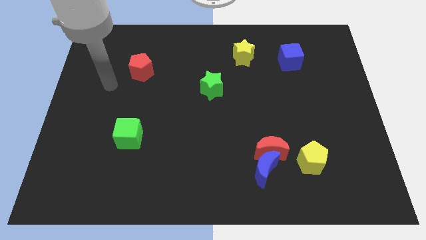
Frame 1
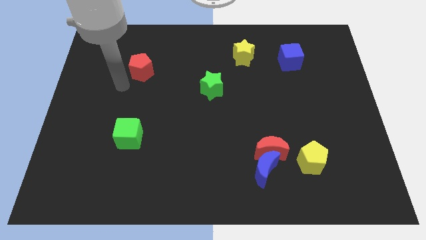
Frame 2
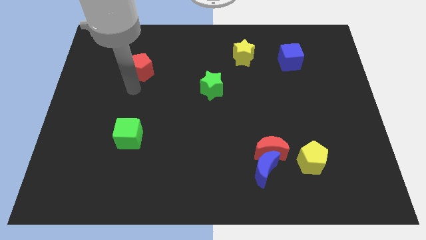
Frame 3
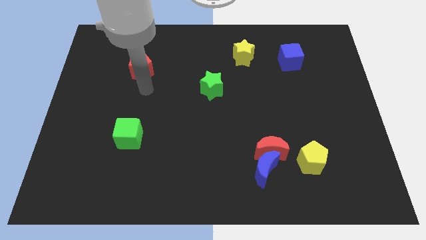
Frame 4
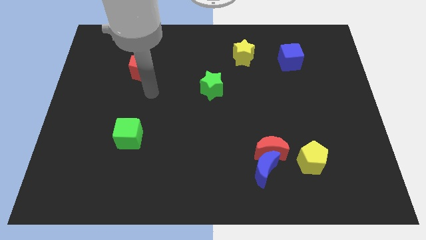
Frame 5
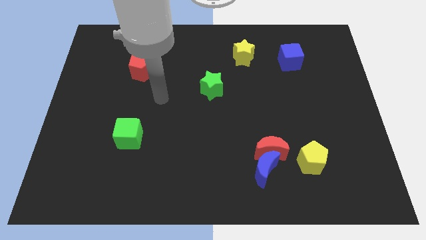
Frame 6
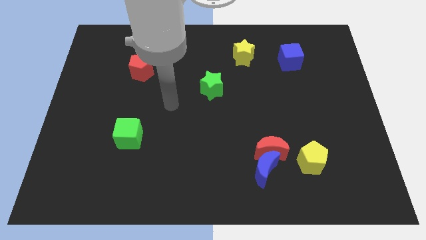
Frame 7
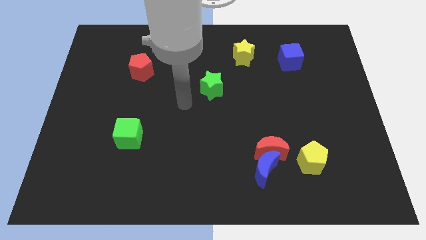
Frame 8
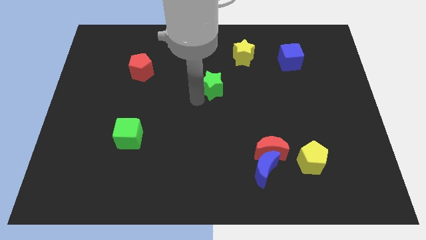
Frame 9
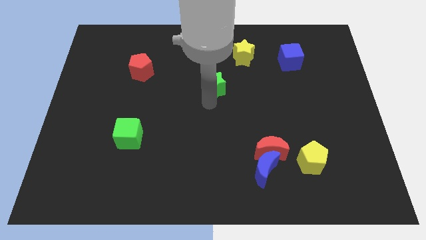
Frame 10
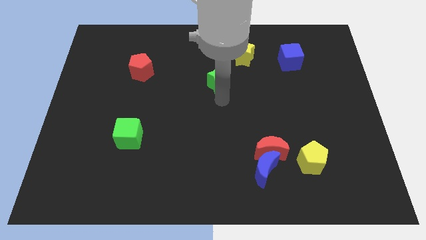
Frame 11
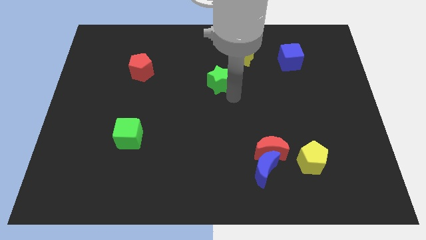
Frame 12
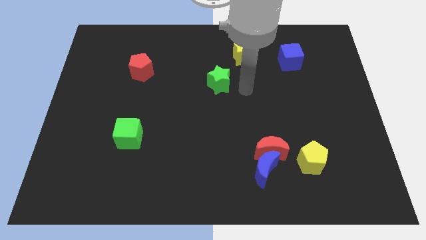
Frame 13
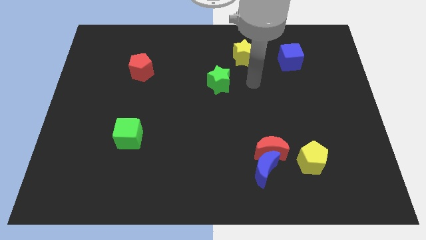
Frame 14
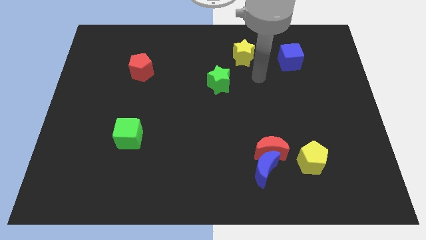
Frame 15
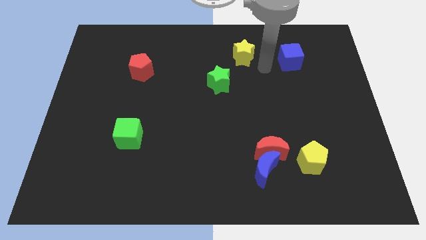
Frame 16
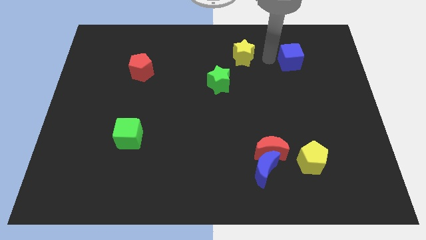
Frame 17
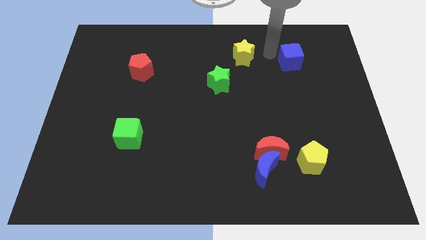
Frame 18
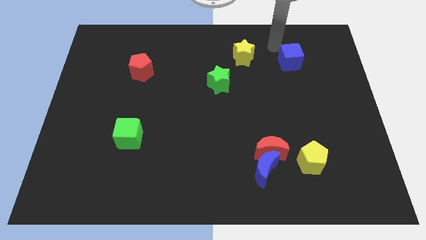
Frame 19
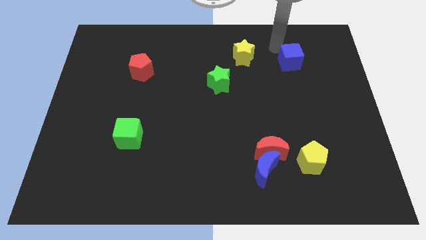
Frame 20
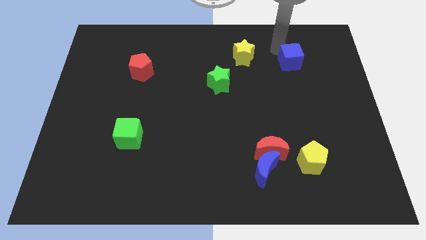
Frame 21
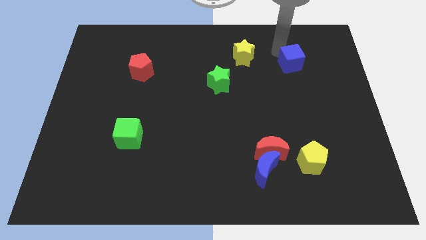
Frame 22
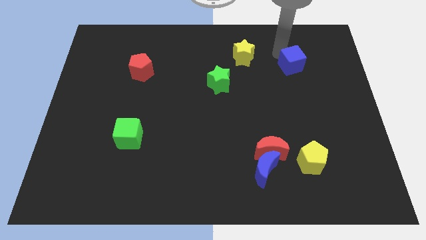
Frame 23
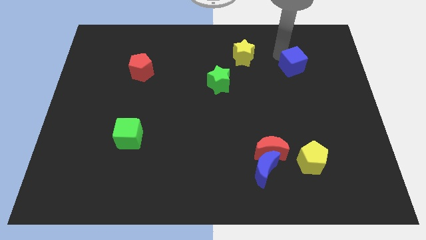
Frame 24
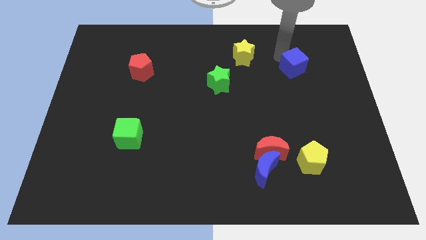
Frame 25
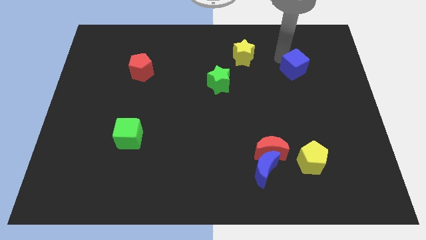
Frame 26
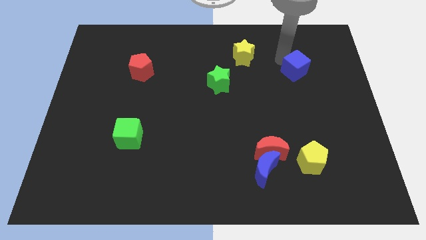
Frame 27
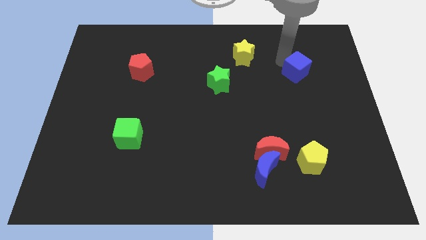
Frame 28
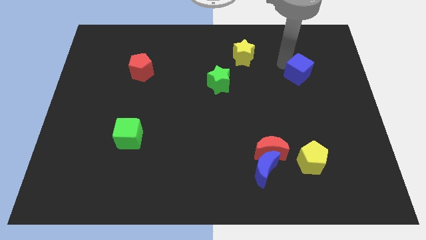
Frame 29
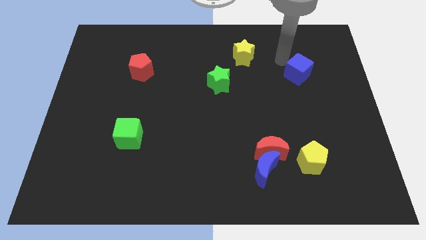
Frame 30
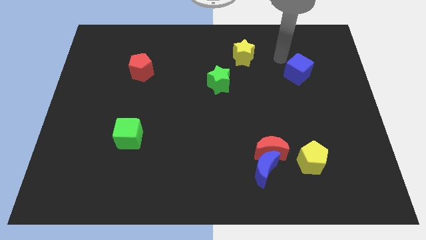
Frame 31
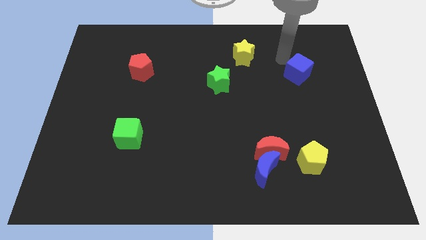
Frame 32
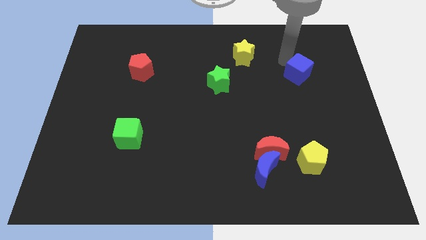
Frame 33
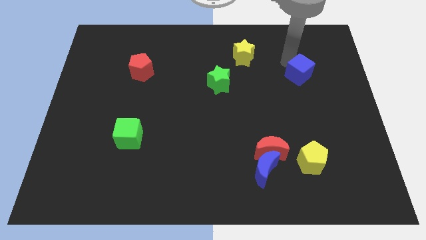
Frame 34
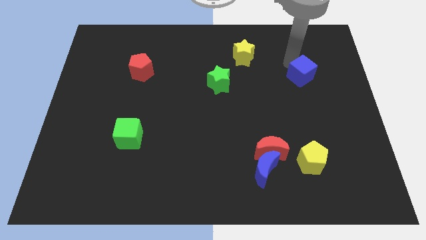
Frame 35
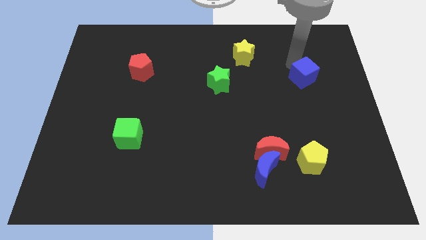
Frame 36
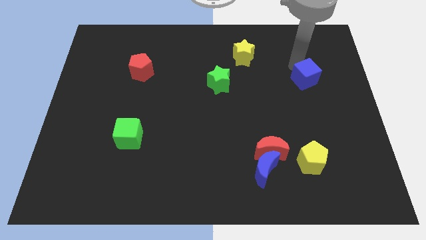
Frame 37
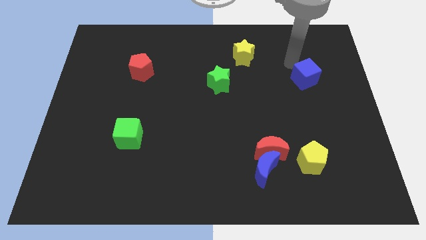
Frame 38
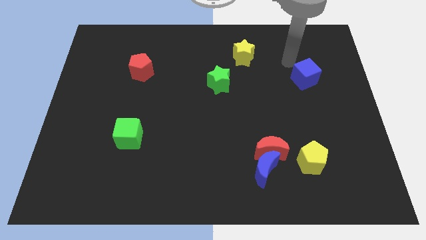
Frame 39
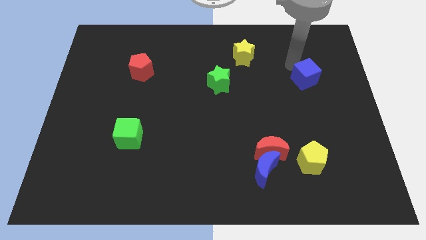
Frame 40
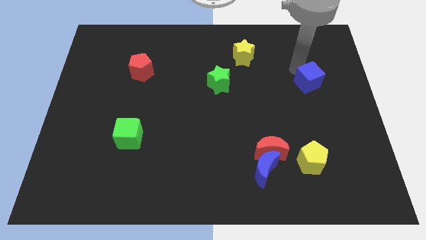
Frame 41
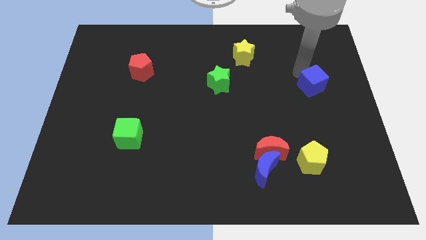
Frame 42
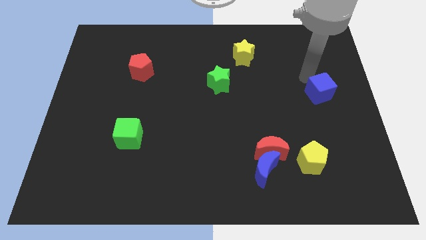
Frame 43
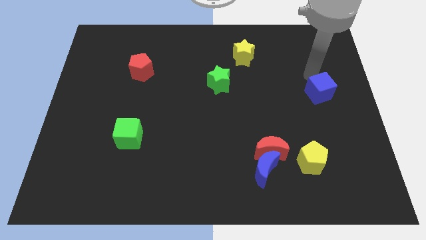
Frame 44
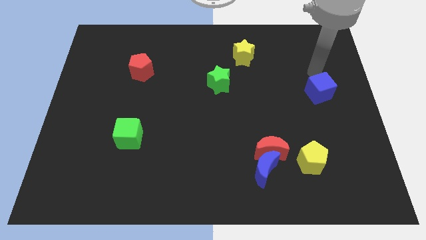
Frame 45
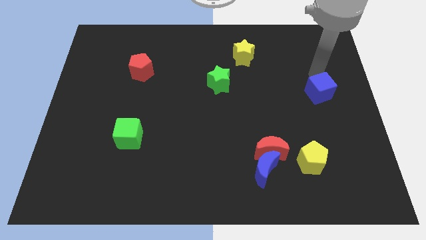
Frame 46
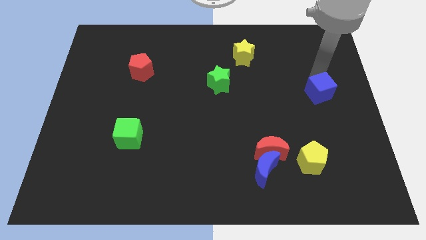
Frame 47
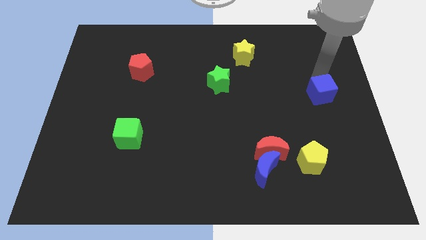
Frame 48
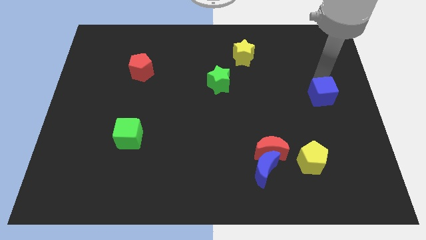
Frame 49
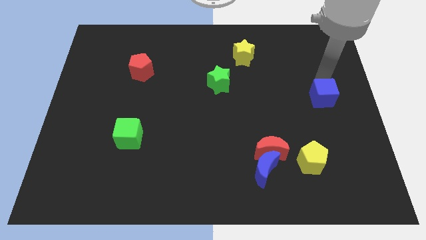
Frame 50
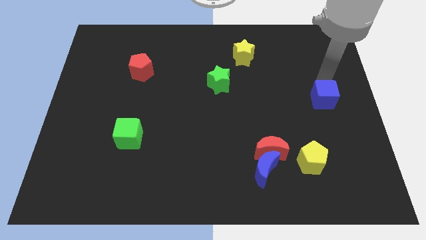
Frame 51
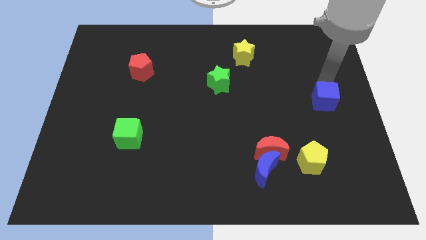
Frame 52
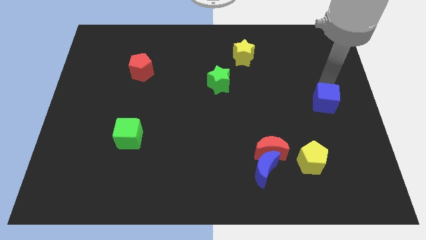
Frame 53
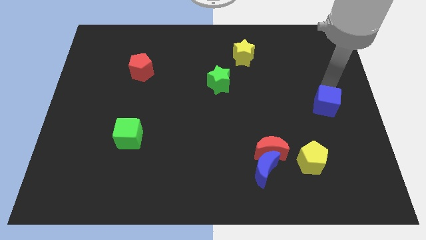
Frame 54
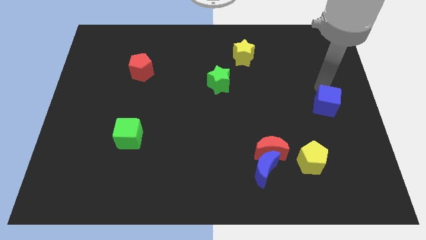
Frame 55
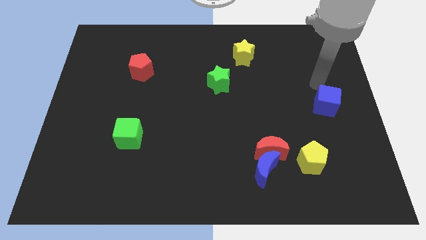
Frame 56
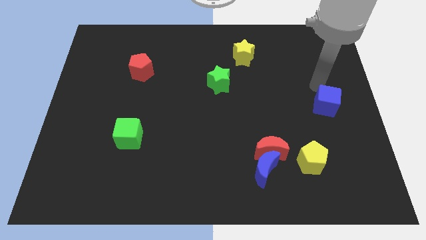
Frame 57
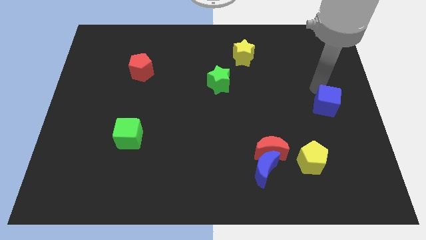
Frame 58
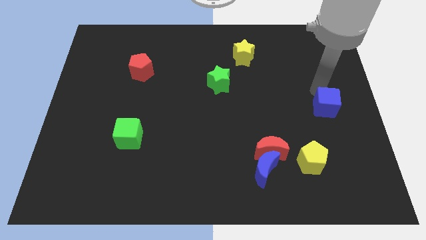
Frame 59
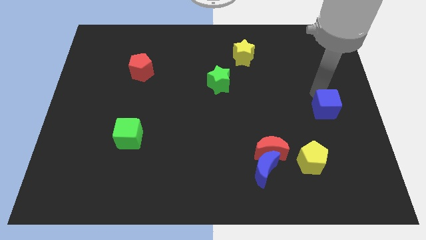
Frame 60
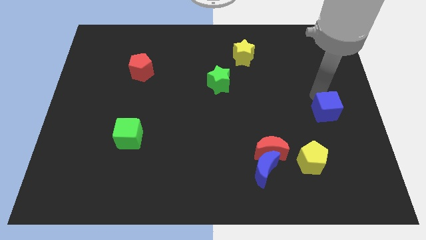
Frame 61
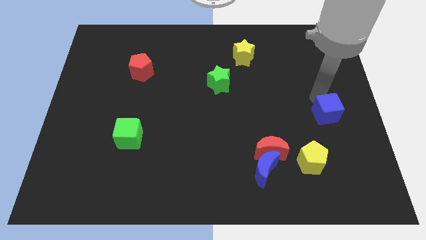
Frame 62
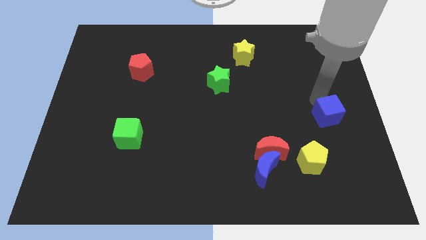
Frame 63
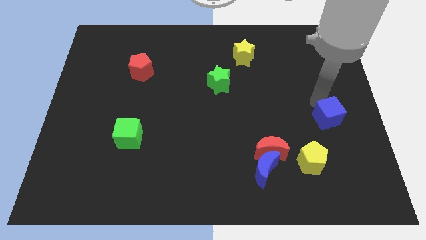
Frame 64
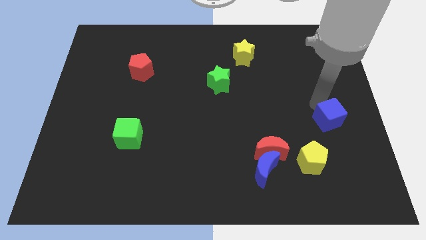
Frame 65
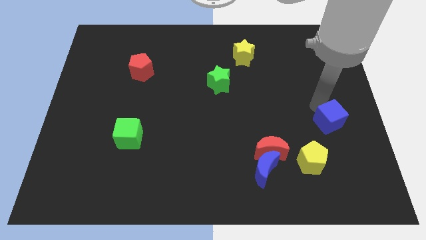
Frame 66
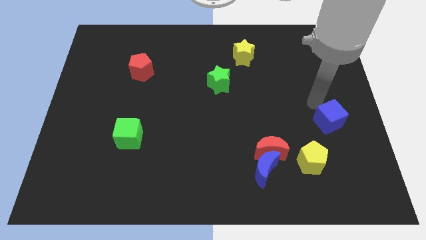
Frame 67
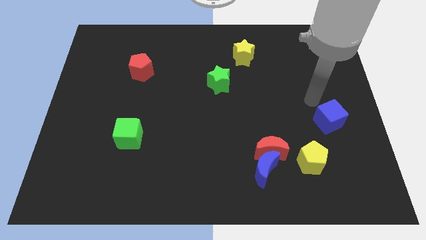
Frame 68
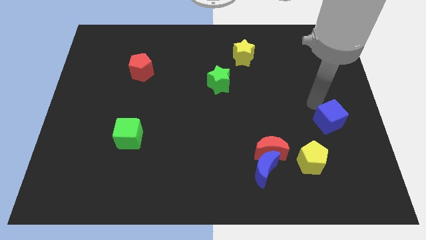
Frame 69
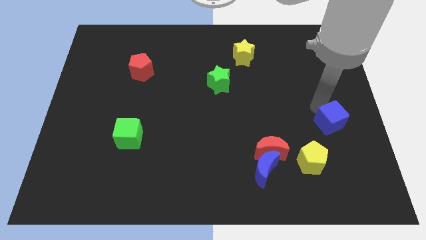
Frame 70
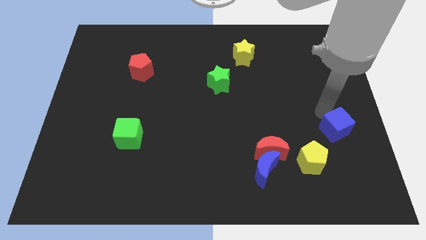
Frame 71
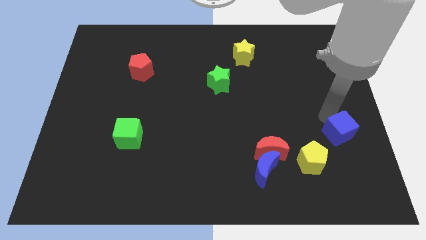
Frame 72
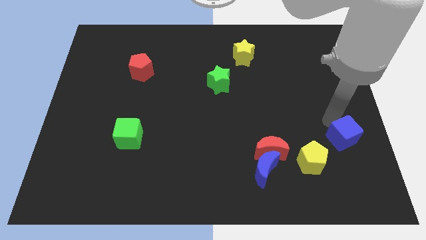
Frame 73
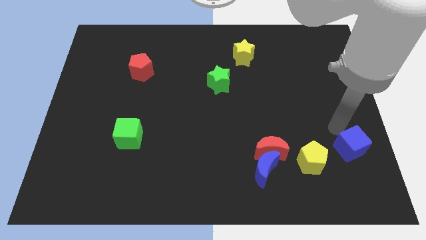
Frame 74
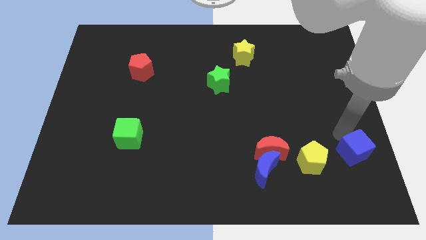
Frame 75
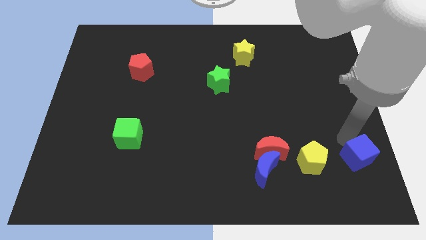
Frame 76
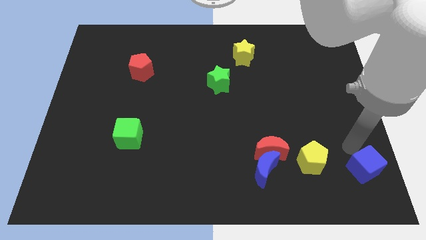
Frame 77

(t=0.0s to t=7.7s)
slide the blue cube to the bottom right corner
